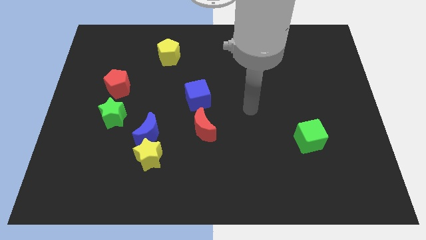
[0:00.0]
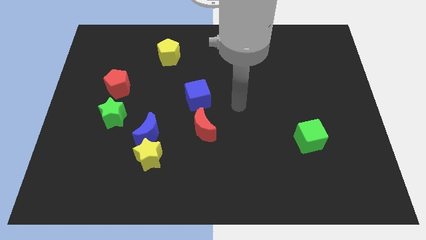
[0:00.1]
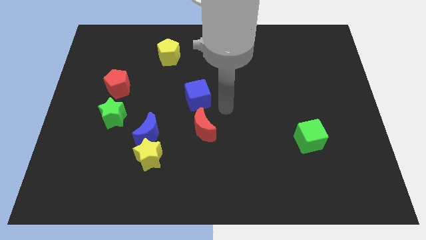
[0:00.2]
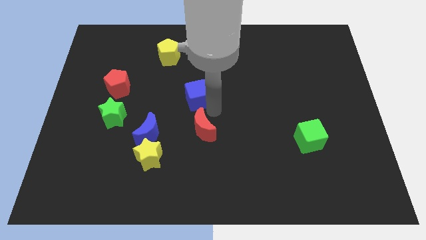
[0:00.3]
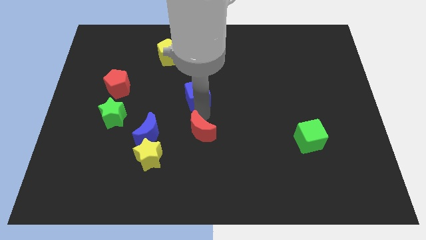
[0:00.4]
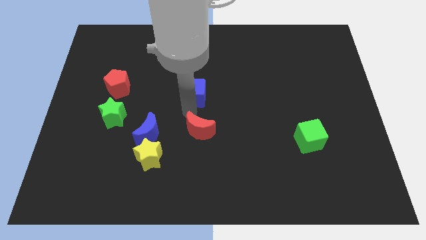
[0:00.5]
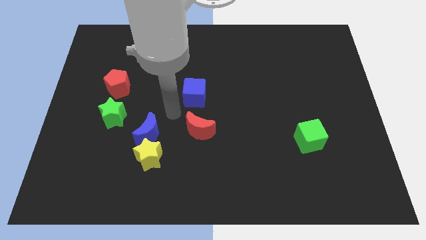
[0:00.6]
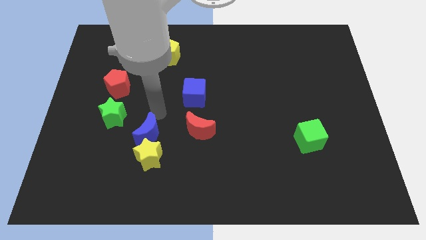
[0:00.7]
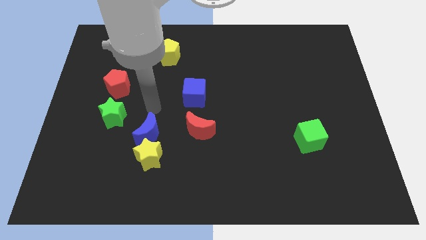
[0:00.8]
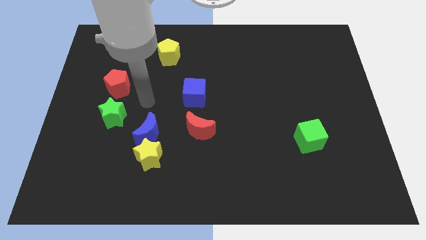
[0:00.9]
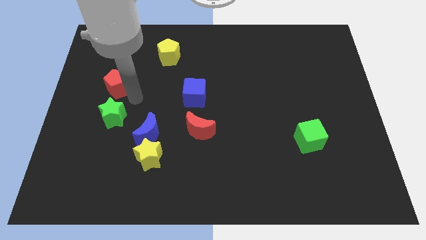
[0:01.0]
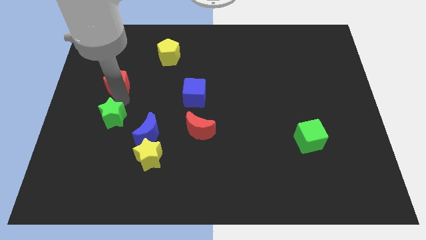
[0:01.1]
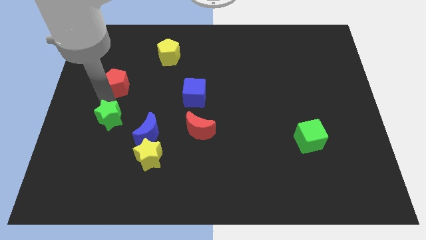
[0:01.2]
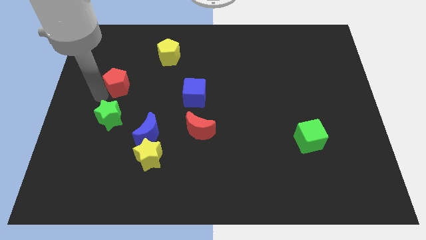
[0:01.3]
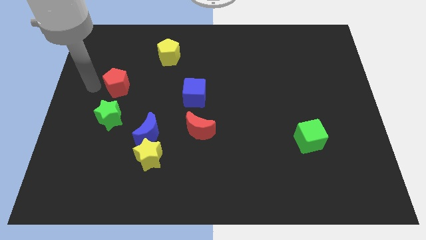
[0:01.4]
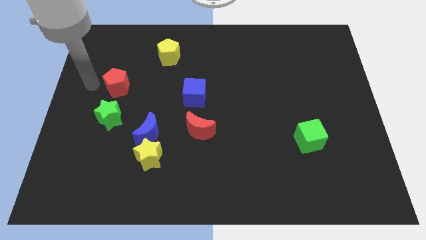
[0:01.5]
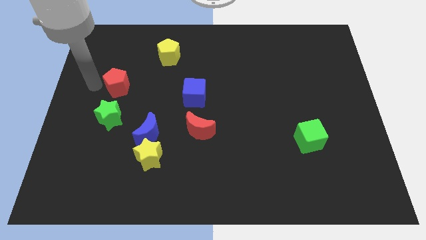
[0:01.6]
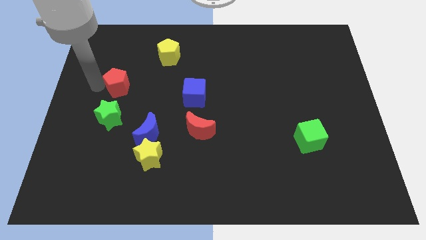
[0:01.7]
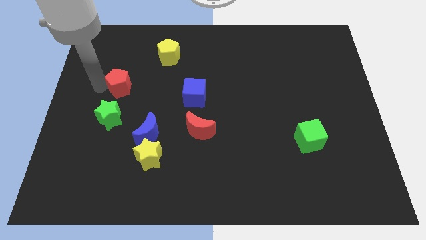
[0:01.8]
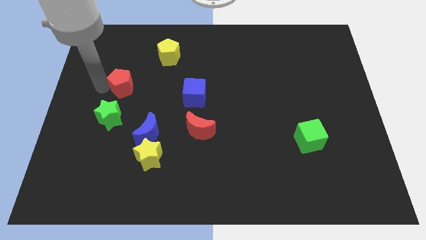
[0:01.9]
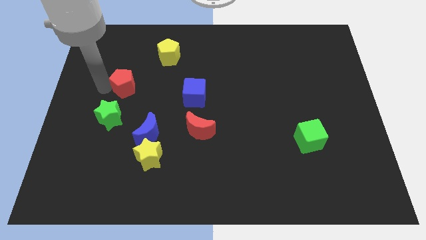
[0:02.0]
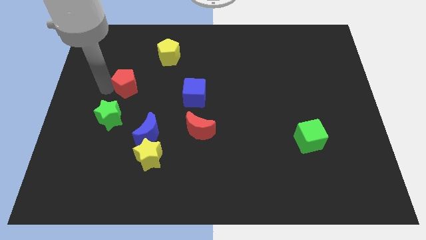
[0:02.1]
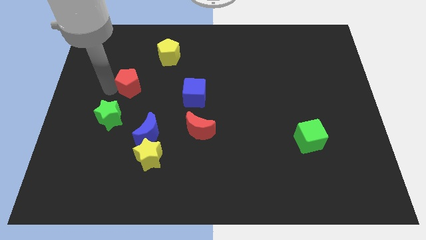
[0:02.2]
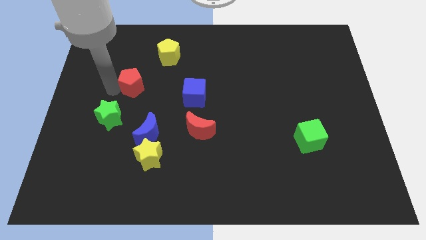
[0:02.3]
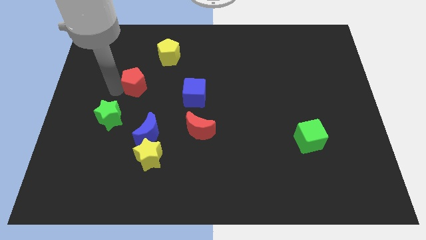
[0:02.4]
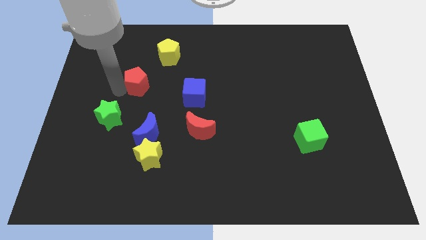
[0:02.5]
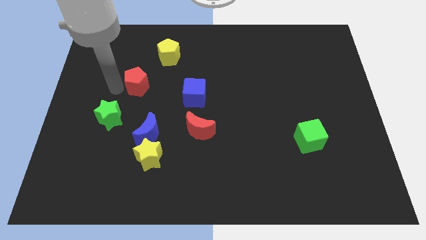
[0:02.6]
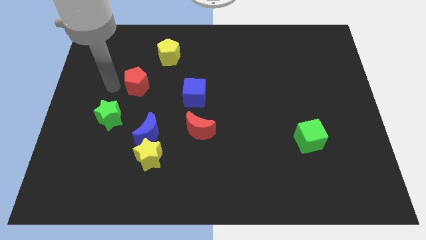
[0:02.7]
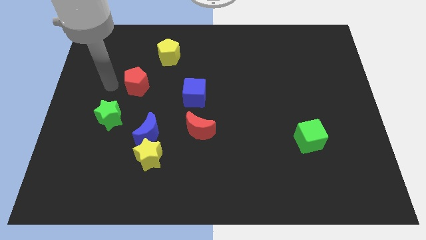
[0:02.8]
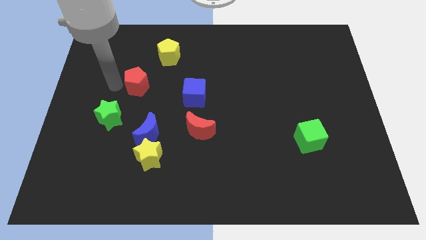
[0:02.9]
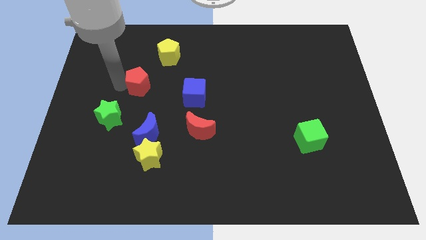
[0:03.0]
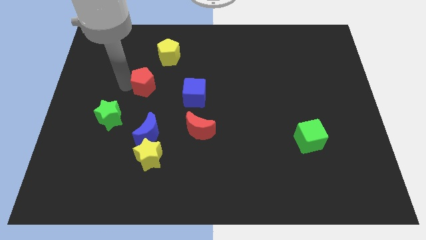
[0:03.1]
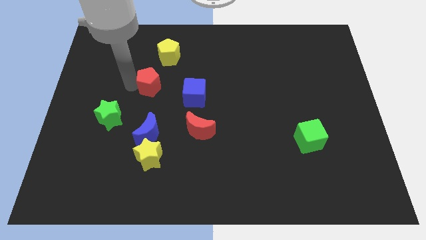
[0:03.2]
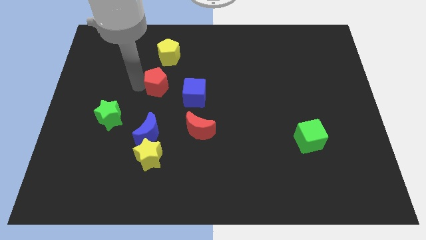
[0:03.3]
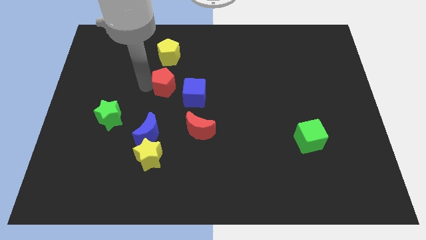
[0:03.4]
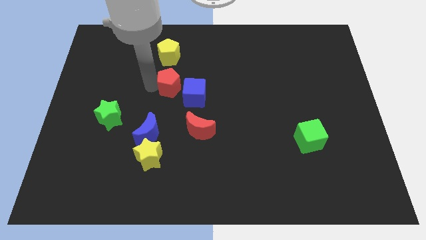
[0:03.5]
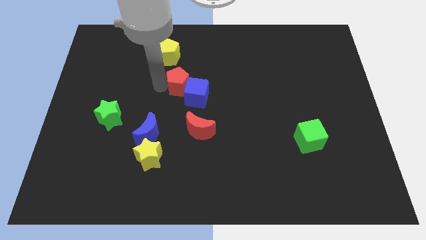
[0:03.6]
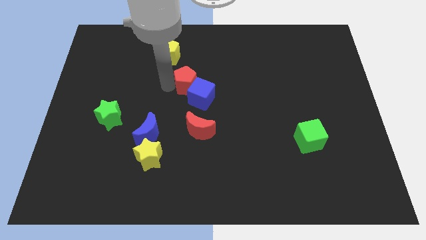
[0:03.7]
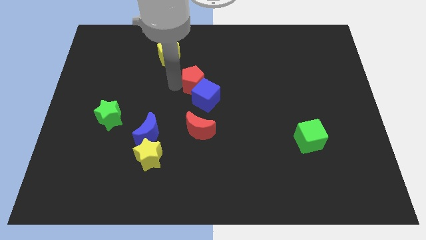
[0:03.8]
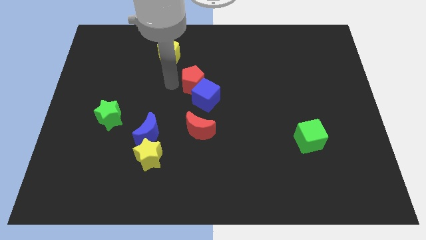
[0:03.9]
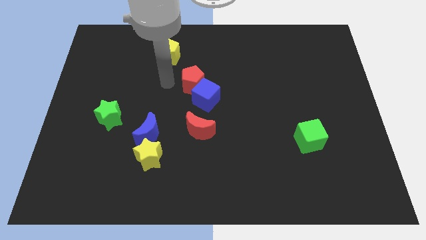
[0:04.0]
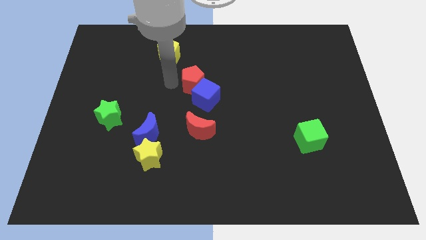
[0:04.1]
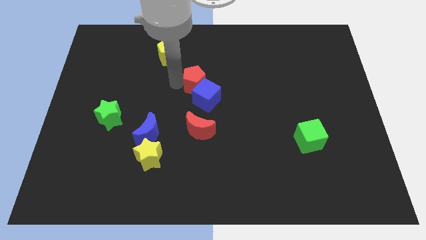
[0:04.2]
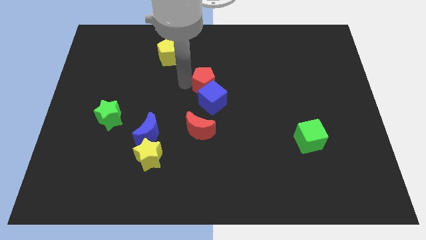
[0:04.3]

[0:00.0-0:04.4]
slide the red pentagon right

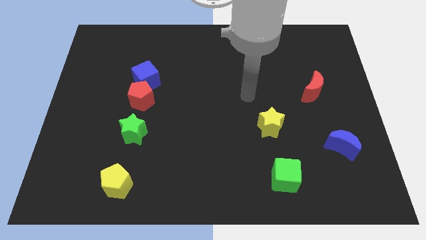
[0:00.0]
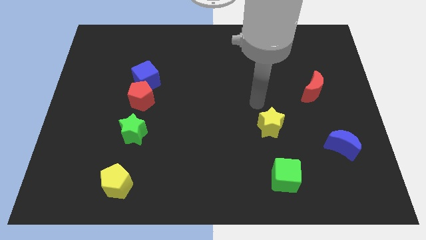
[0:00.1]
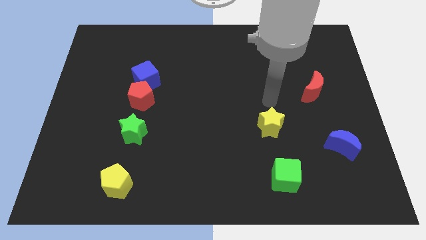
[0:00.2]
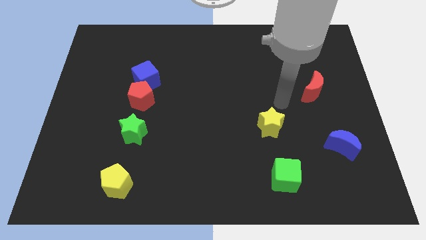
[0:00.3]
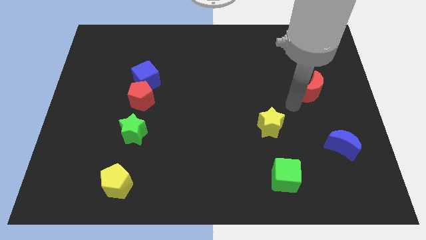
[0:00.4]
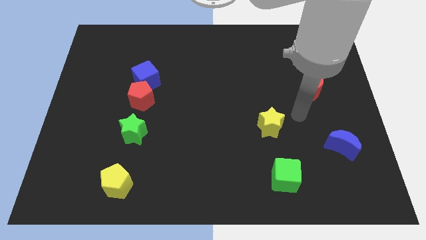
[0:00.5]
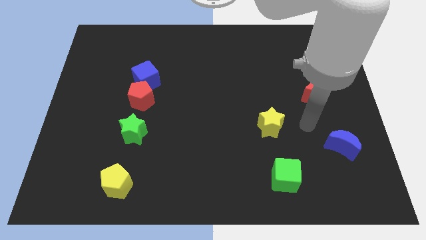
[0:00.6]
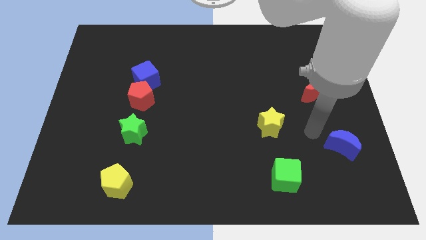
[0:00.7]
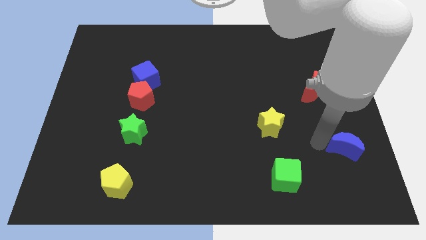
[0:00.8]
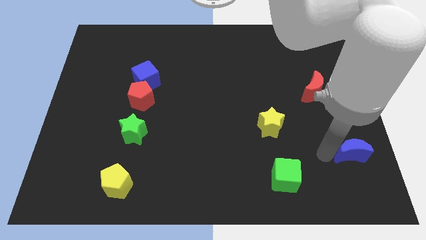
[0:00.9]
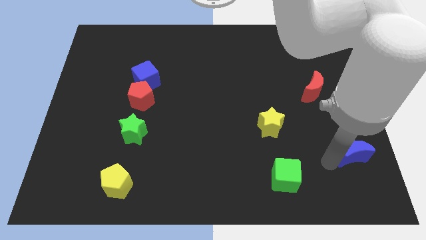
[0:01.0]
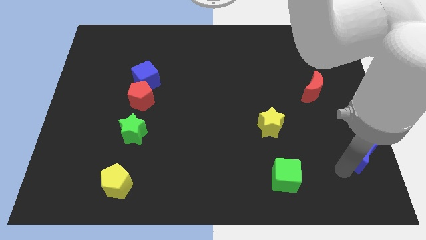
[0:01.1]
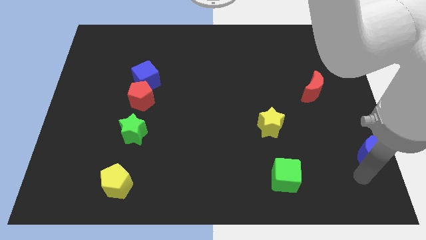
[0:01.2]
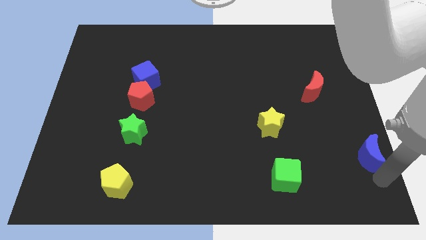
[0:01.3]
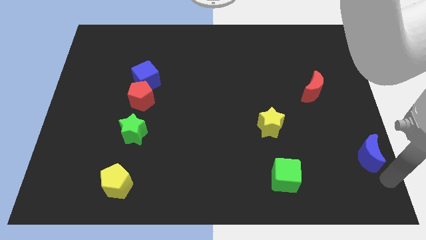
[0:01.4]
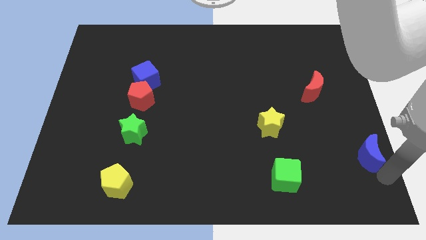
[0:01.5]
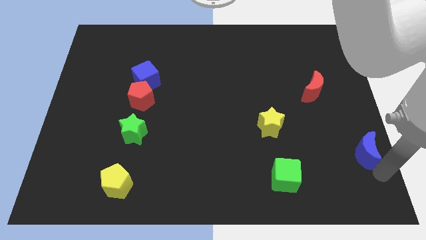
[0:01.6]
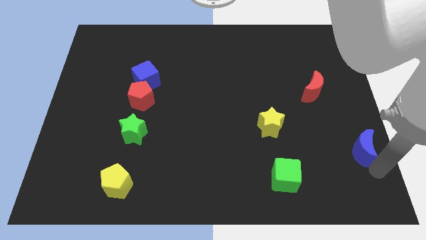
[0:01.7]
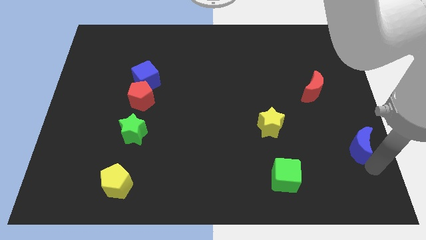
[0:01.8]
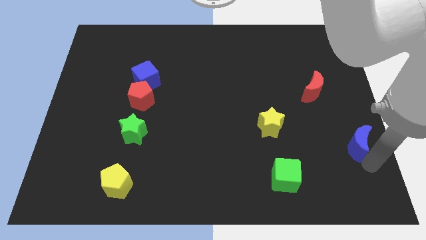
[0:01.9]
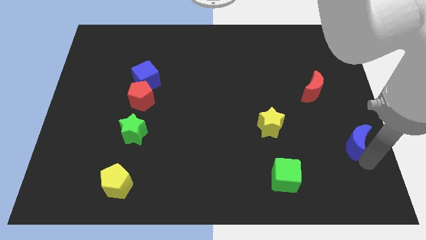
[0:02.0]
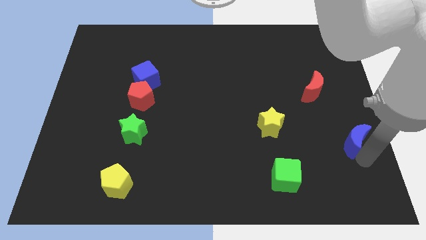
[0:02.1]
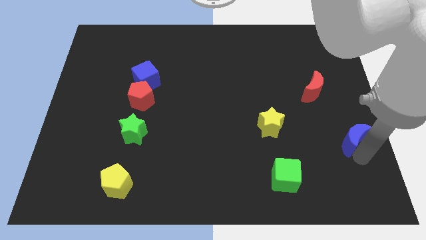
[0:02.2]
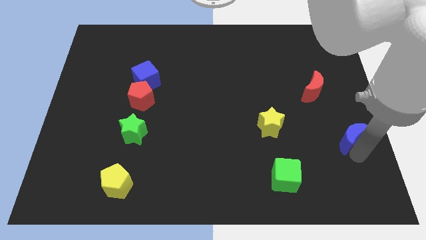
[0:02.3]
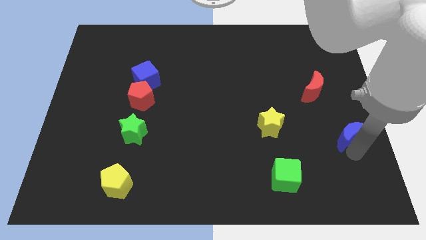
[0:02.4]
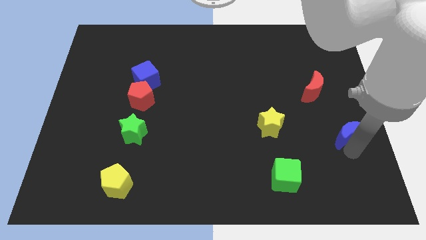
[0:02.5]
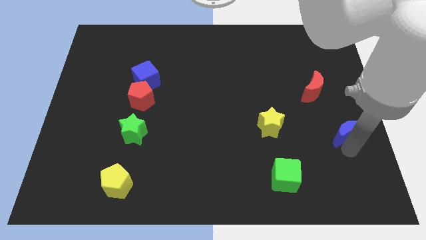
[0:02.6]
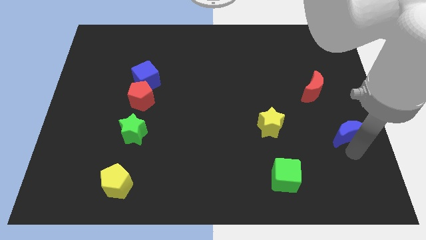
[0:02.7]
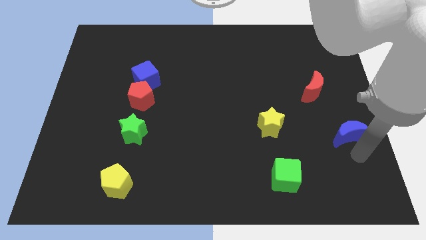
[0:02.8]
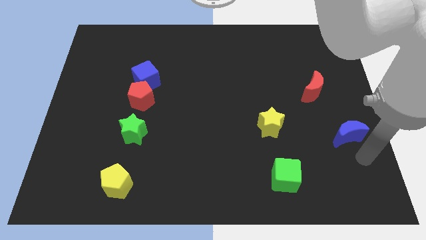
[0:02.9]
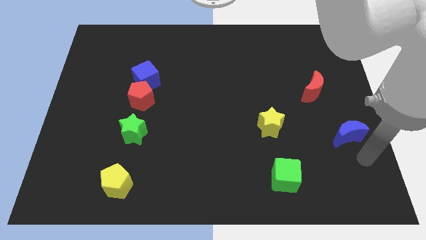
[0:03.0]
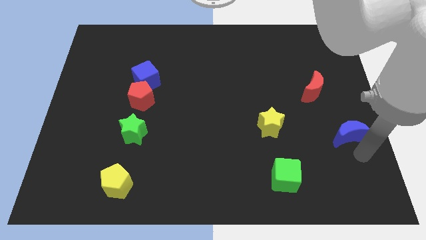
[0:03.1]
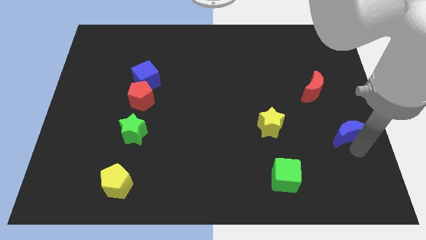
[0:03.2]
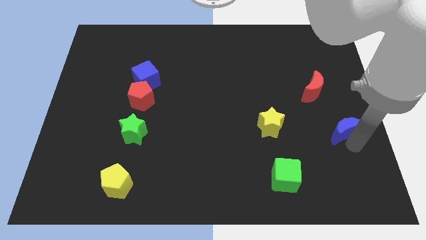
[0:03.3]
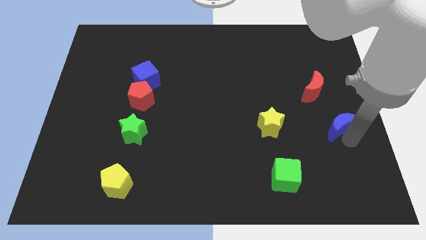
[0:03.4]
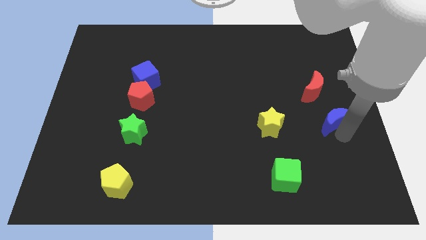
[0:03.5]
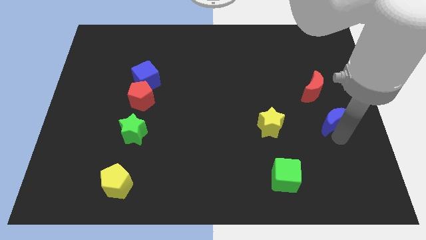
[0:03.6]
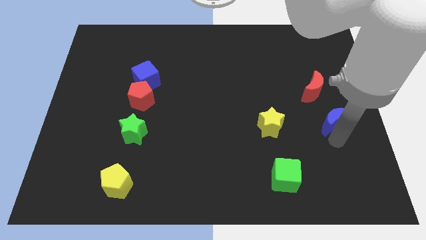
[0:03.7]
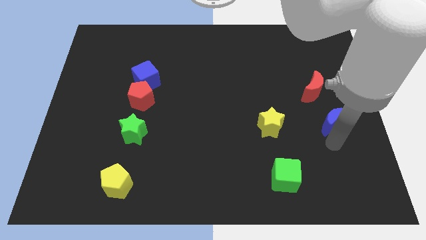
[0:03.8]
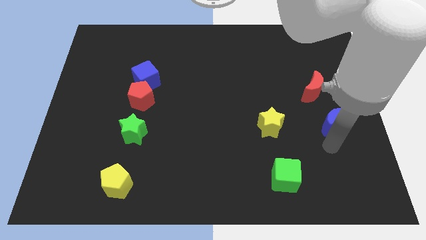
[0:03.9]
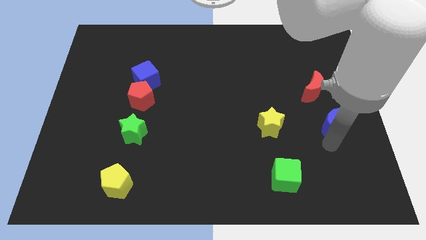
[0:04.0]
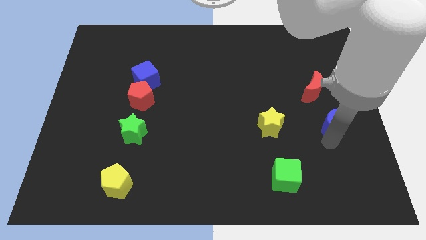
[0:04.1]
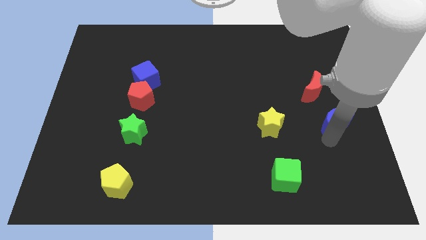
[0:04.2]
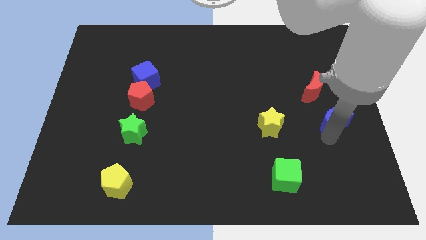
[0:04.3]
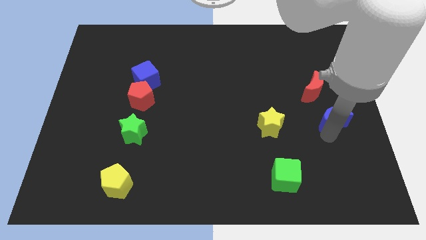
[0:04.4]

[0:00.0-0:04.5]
slightly move the blue moon upwards
